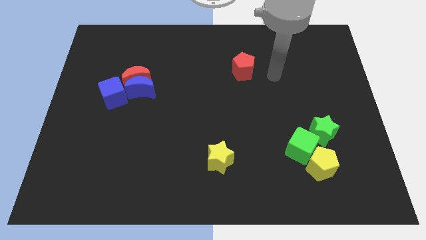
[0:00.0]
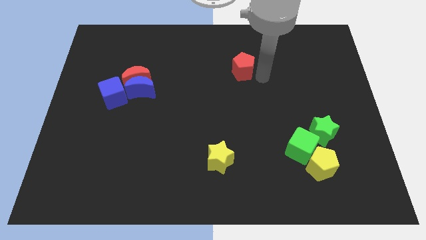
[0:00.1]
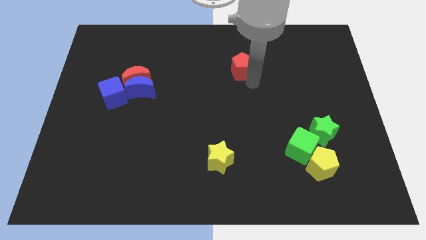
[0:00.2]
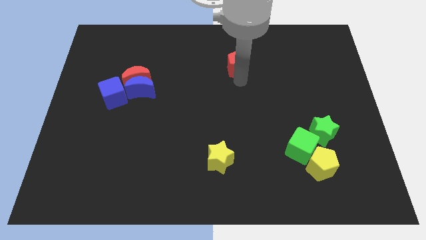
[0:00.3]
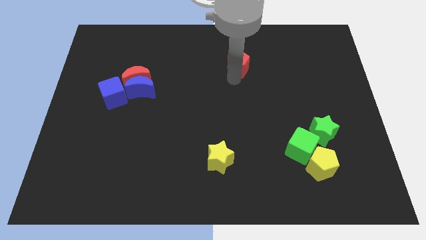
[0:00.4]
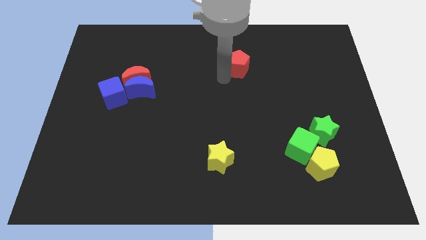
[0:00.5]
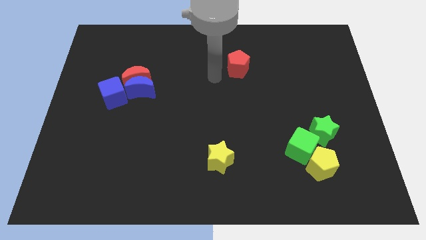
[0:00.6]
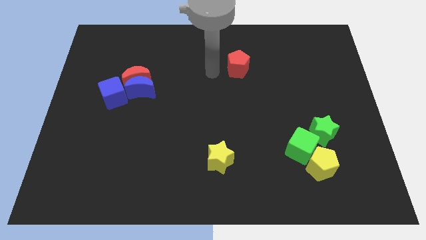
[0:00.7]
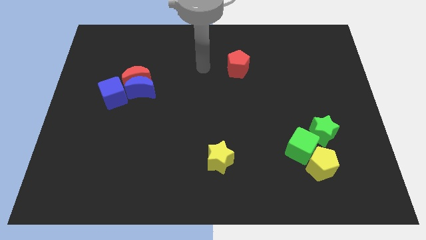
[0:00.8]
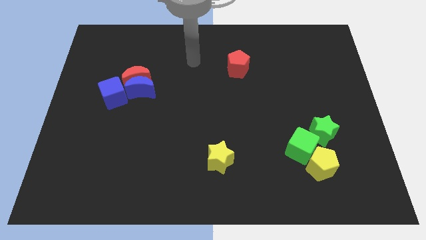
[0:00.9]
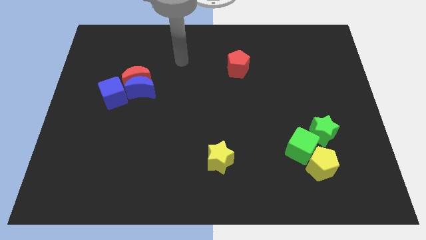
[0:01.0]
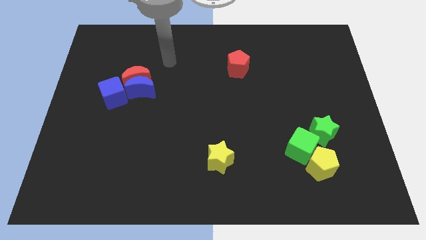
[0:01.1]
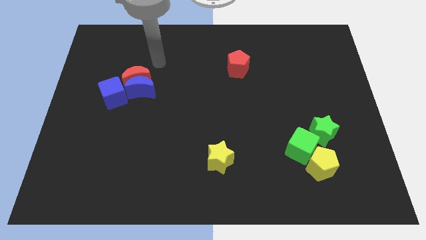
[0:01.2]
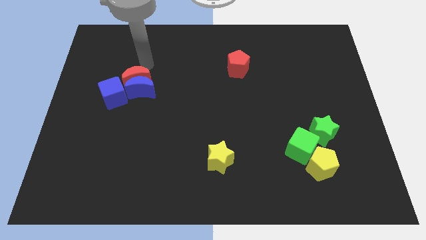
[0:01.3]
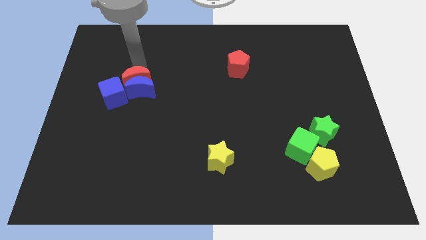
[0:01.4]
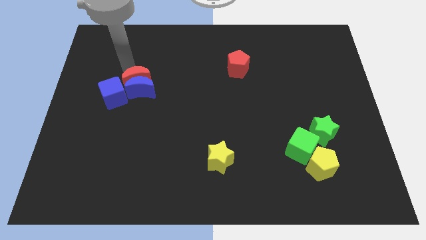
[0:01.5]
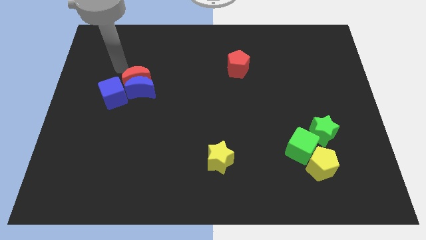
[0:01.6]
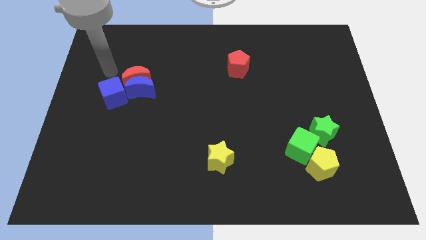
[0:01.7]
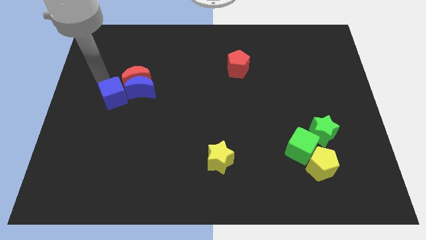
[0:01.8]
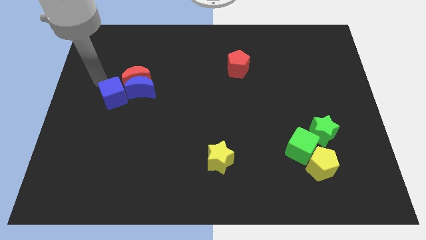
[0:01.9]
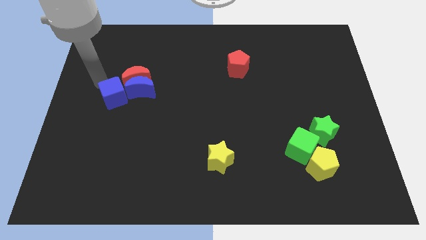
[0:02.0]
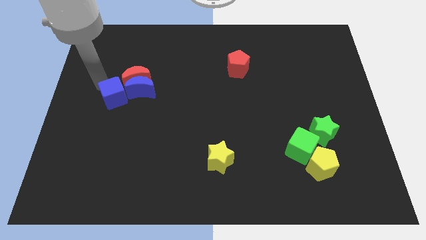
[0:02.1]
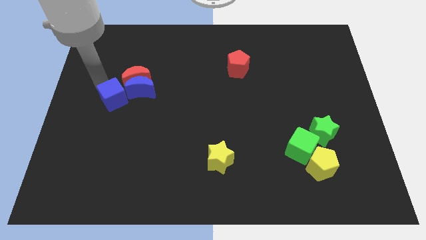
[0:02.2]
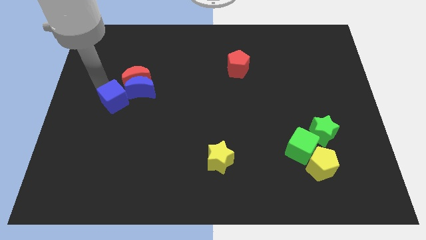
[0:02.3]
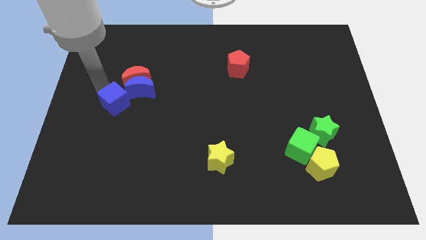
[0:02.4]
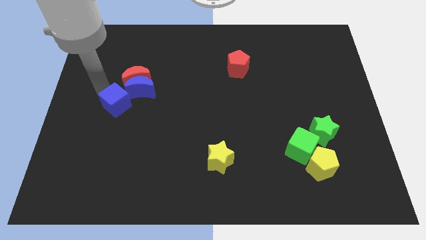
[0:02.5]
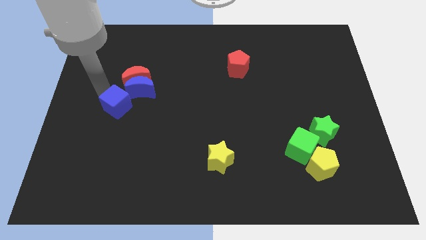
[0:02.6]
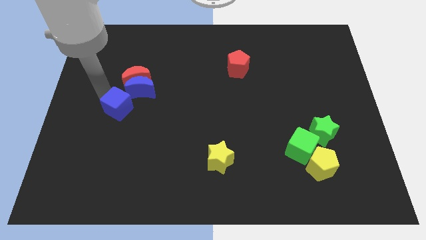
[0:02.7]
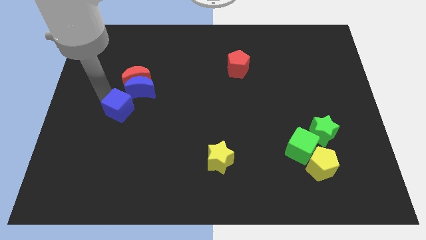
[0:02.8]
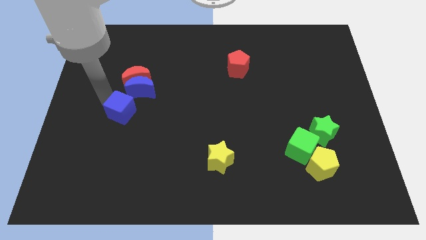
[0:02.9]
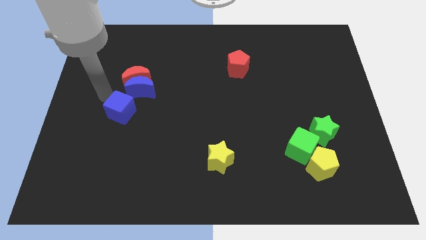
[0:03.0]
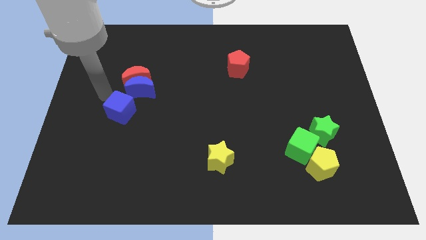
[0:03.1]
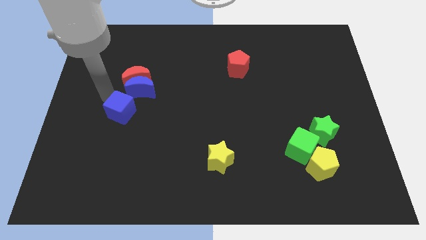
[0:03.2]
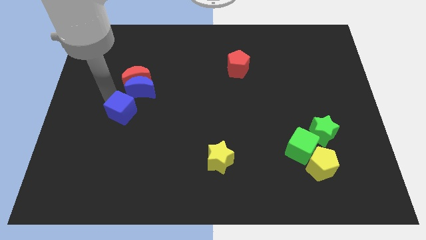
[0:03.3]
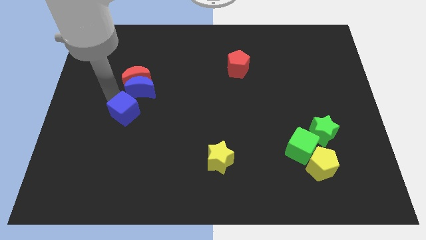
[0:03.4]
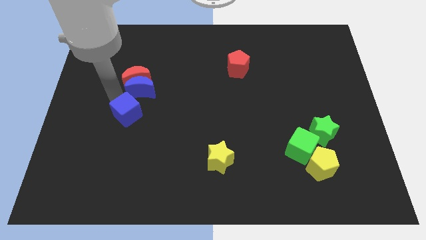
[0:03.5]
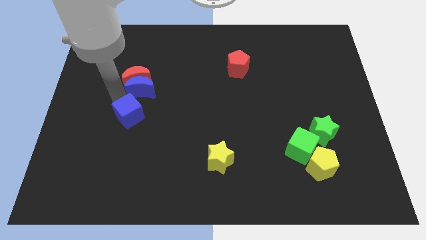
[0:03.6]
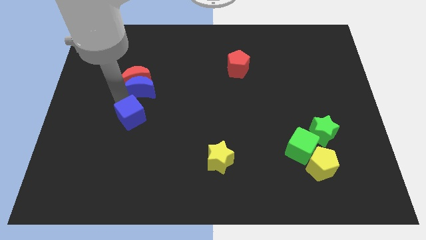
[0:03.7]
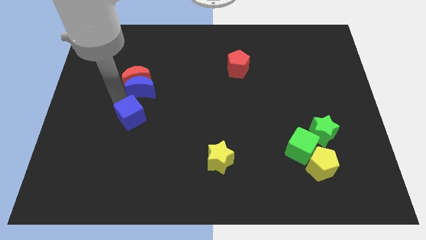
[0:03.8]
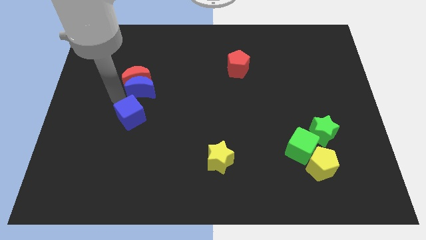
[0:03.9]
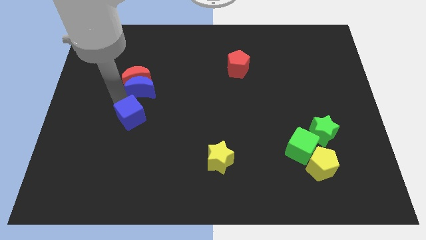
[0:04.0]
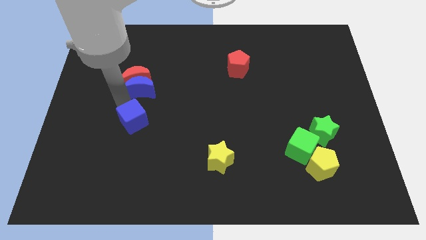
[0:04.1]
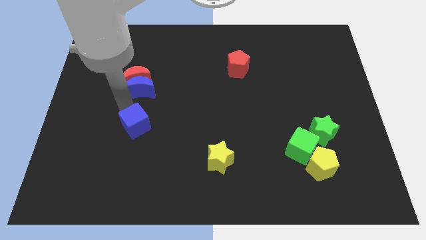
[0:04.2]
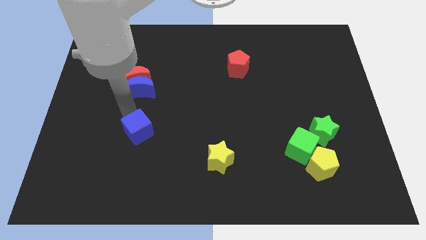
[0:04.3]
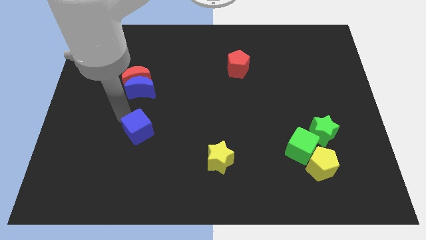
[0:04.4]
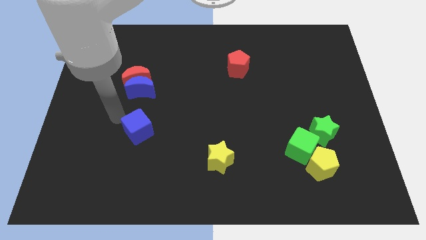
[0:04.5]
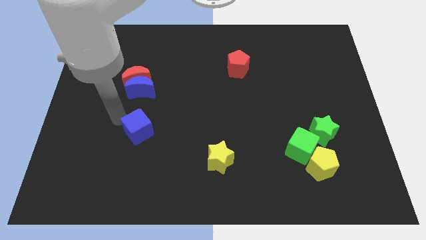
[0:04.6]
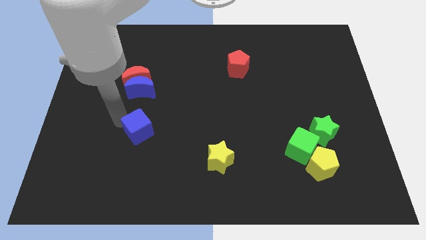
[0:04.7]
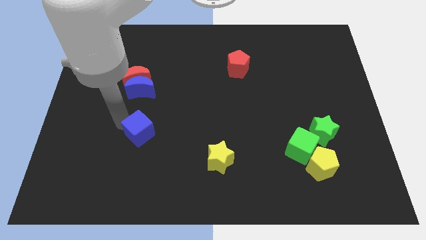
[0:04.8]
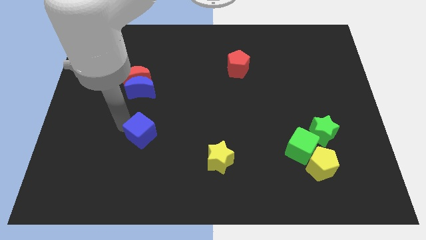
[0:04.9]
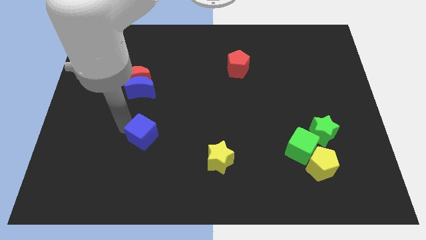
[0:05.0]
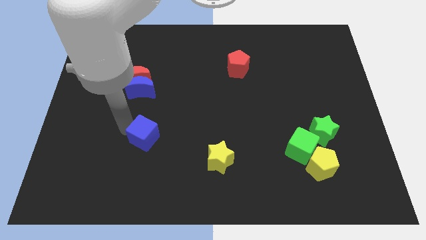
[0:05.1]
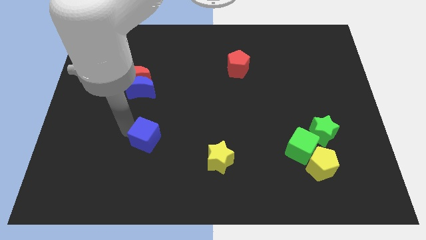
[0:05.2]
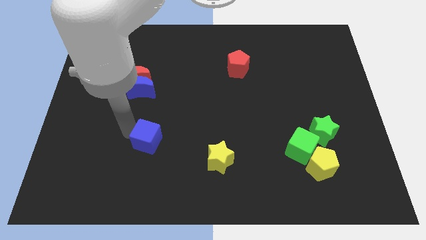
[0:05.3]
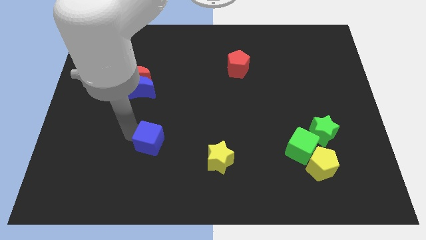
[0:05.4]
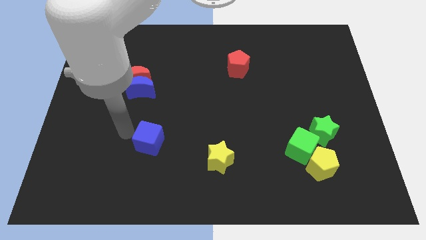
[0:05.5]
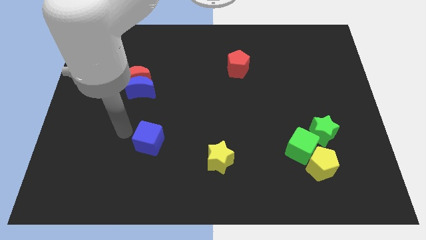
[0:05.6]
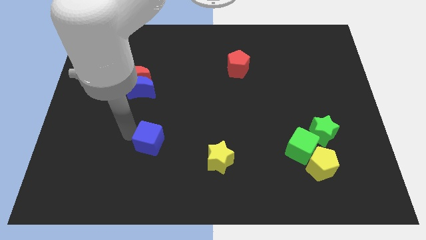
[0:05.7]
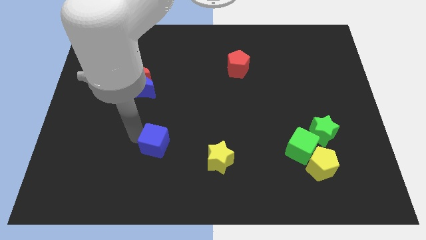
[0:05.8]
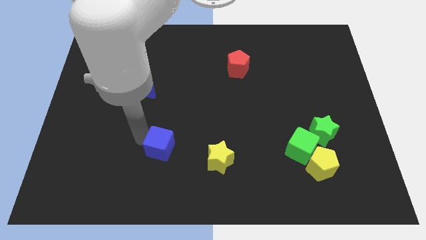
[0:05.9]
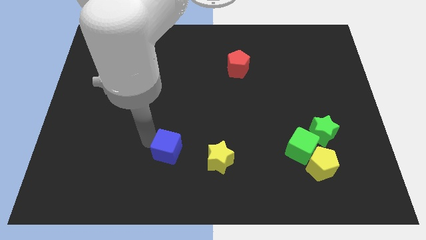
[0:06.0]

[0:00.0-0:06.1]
push the blue cube down and to the right diagonally

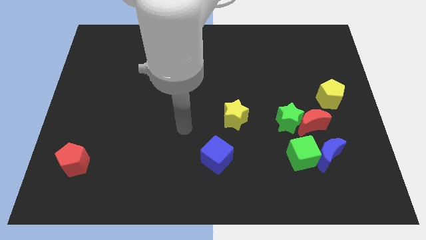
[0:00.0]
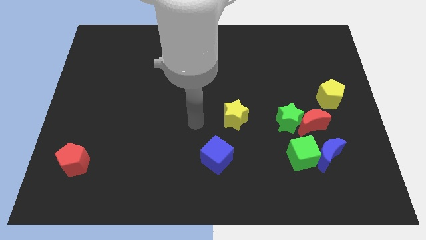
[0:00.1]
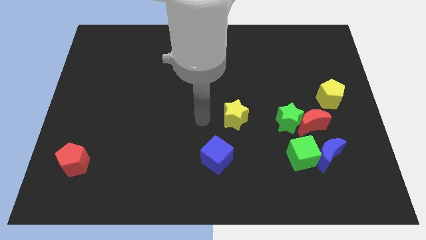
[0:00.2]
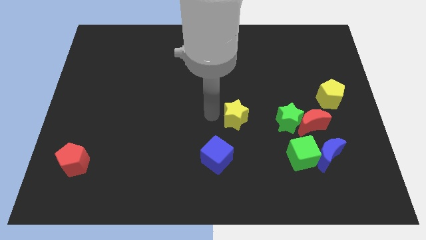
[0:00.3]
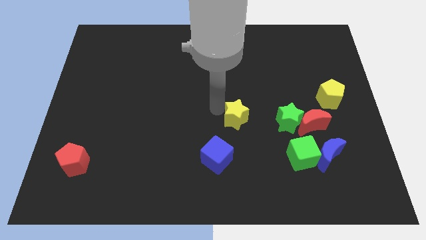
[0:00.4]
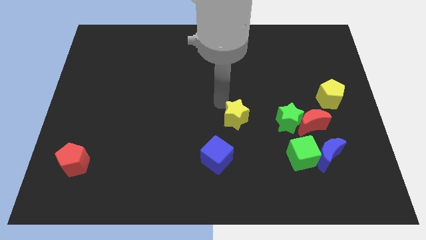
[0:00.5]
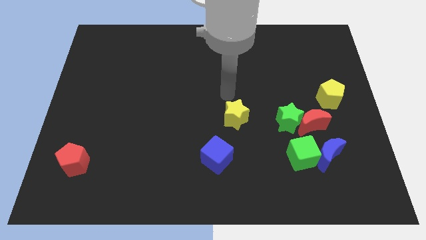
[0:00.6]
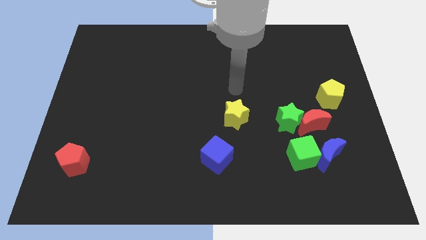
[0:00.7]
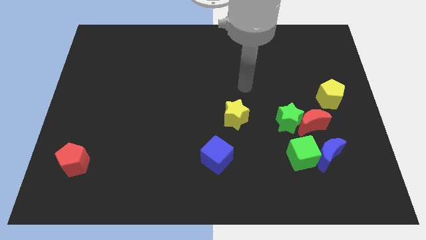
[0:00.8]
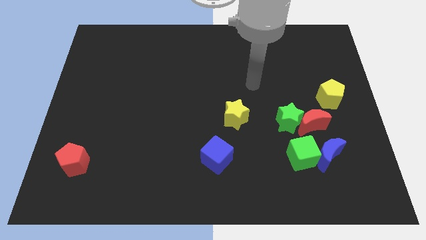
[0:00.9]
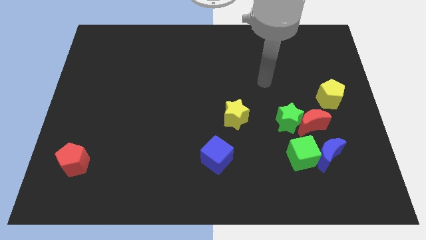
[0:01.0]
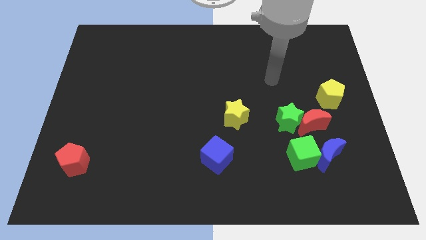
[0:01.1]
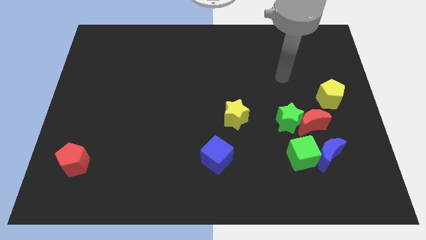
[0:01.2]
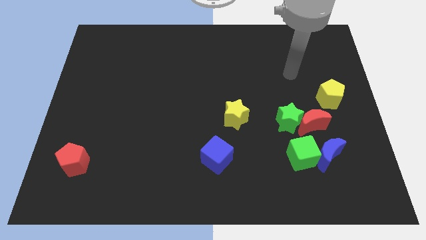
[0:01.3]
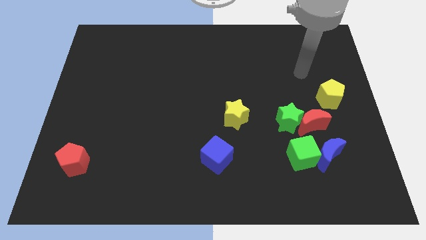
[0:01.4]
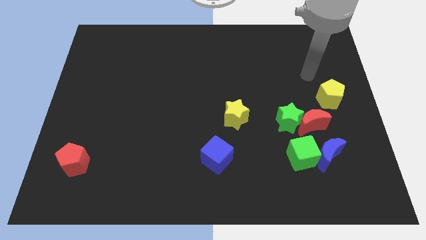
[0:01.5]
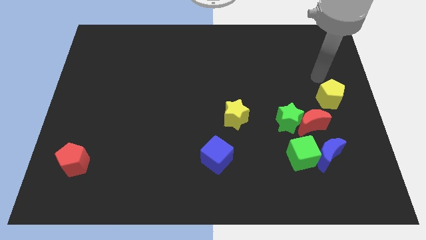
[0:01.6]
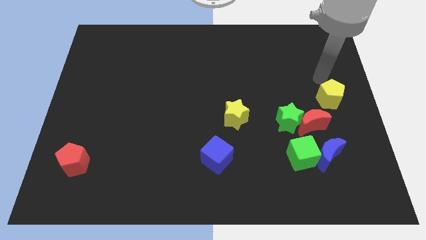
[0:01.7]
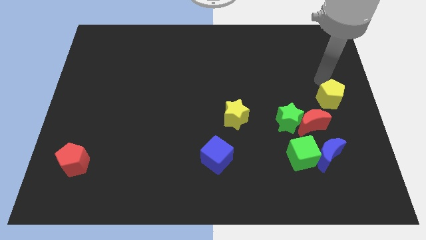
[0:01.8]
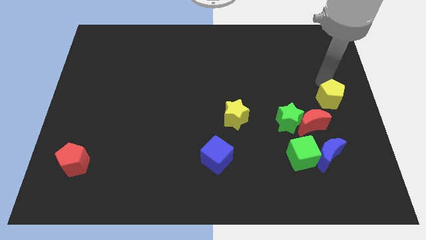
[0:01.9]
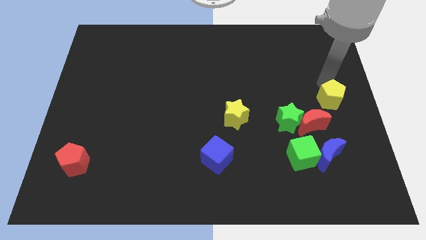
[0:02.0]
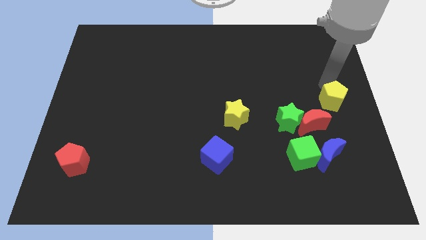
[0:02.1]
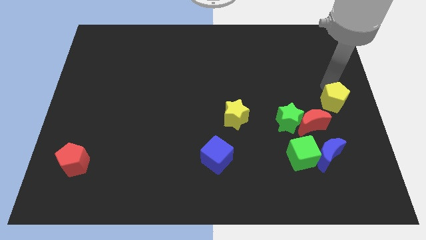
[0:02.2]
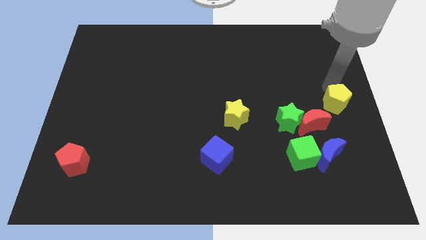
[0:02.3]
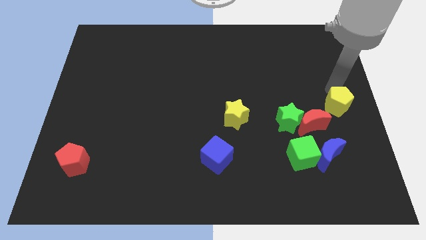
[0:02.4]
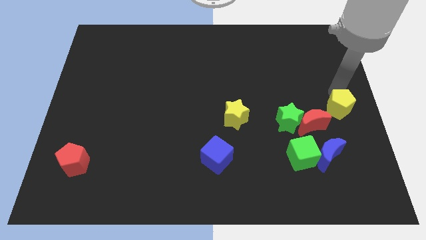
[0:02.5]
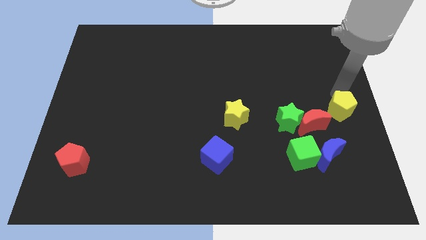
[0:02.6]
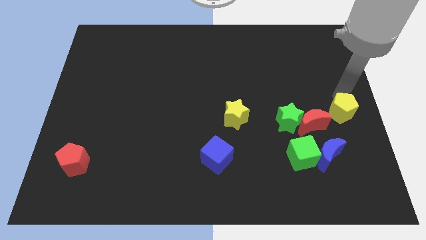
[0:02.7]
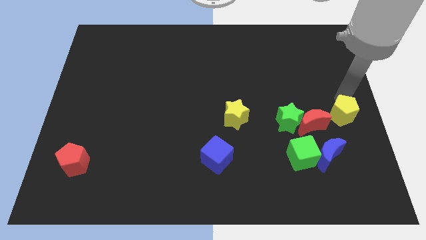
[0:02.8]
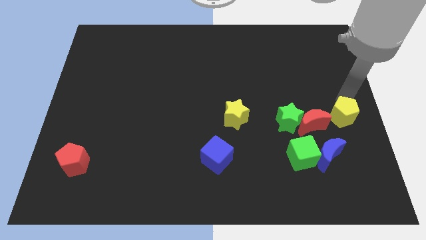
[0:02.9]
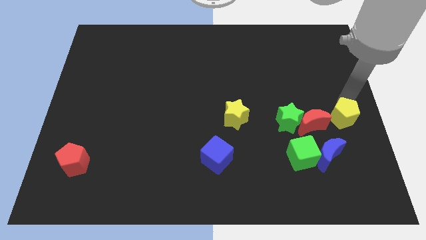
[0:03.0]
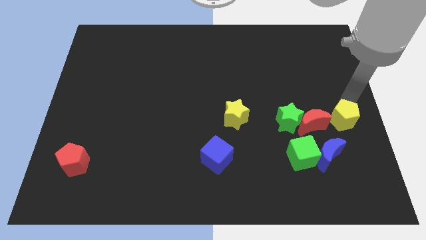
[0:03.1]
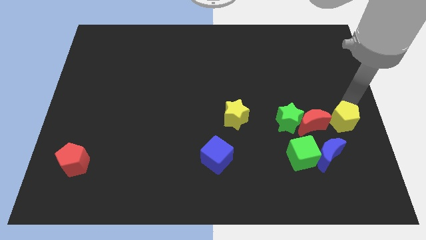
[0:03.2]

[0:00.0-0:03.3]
push the yellow pentagon slightly down
